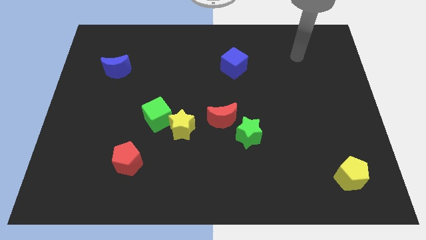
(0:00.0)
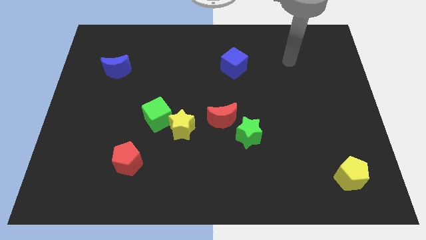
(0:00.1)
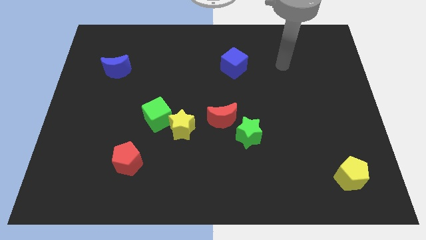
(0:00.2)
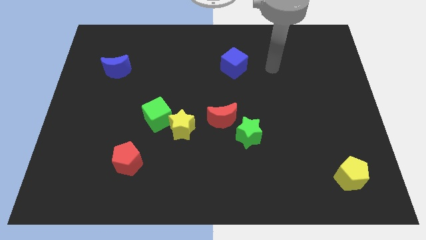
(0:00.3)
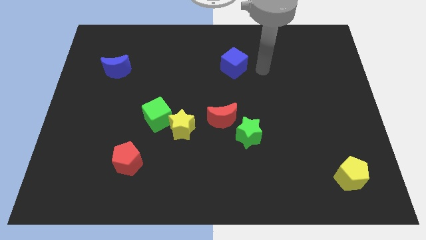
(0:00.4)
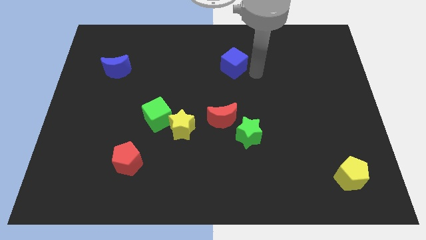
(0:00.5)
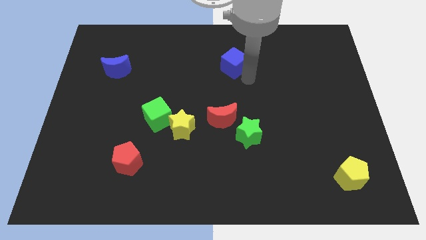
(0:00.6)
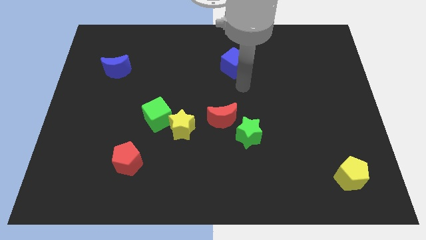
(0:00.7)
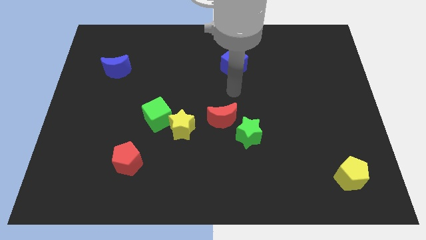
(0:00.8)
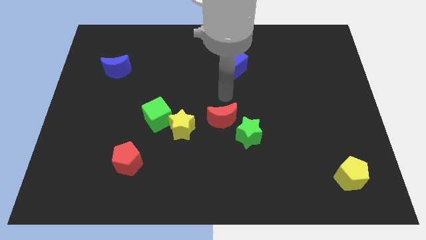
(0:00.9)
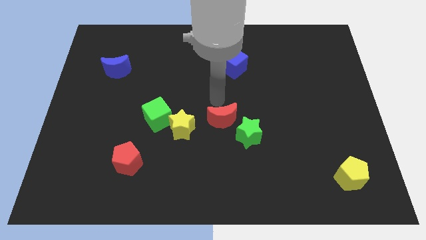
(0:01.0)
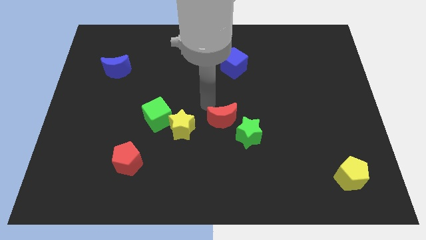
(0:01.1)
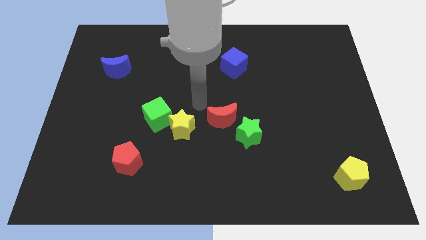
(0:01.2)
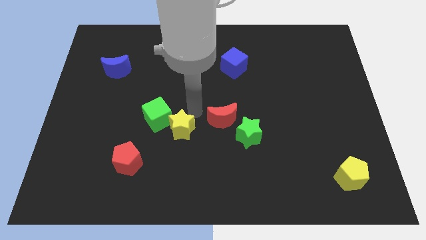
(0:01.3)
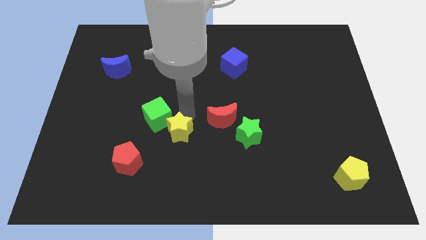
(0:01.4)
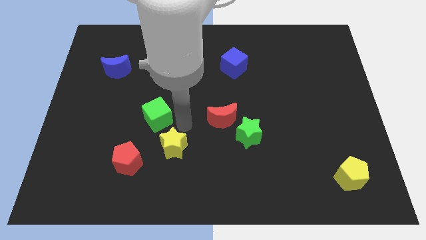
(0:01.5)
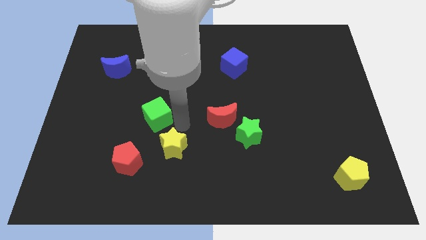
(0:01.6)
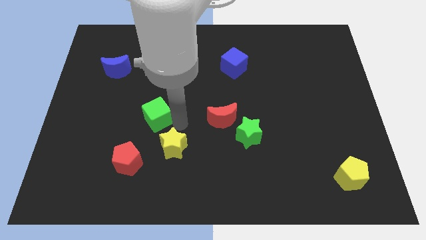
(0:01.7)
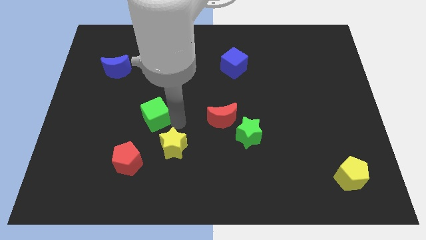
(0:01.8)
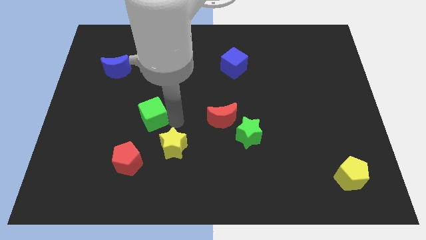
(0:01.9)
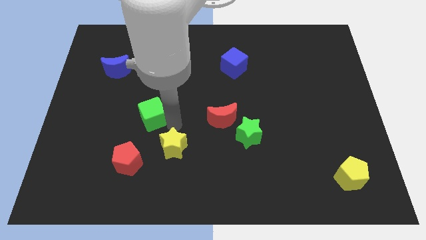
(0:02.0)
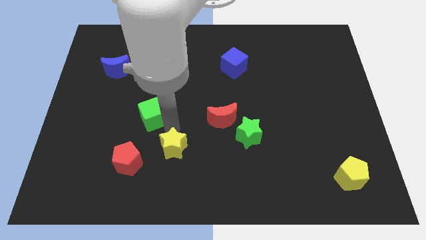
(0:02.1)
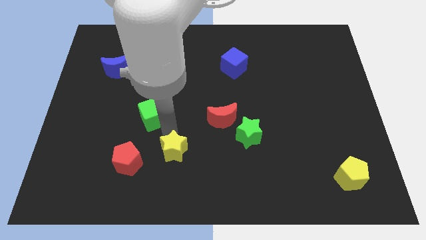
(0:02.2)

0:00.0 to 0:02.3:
pull the green cube apart from the yellow star

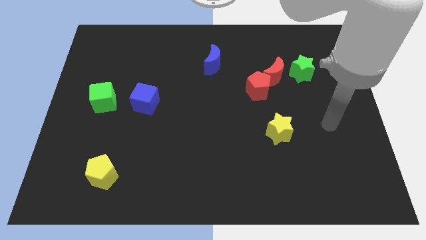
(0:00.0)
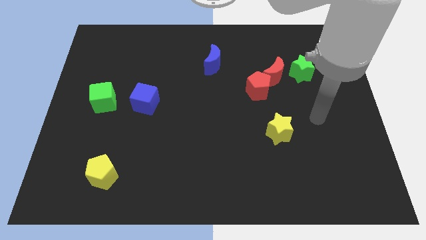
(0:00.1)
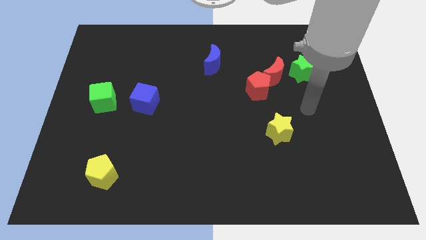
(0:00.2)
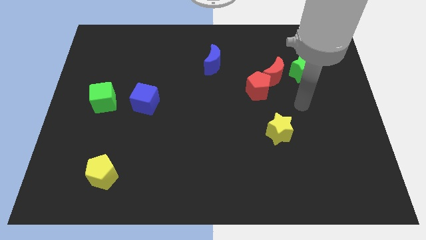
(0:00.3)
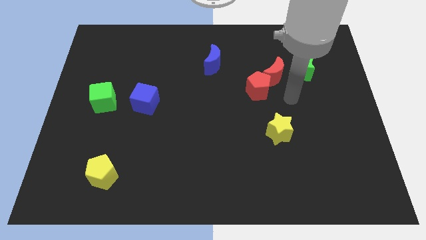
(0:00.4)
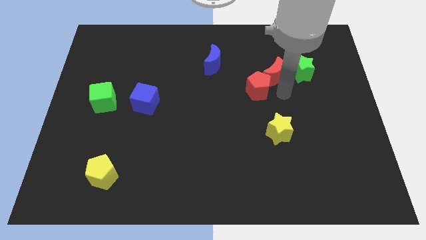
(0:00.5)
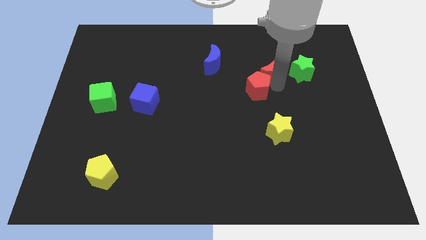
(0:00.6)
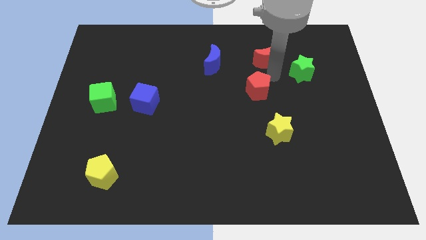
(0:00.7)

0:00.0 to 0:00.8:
separate the red pentagon from the red moon

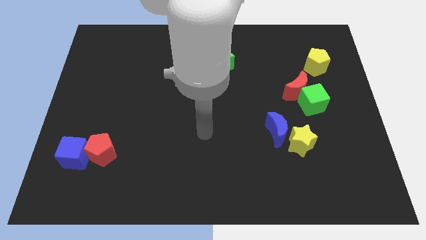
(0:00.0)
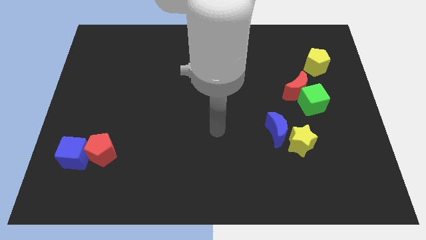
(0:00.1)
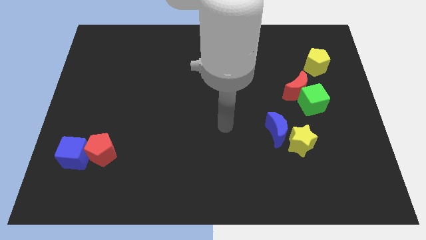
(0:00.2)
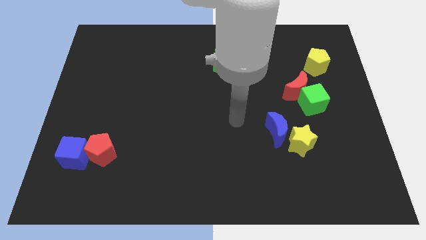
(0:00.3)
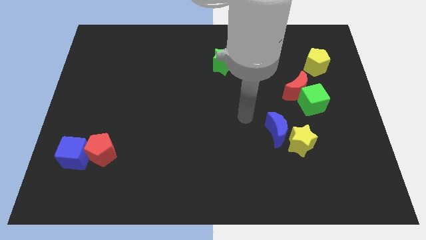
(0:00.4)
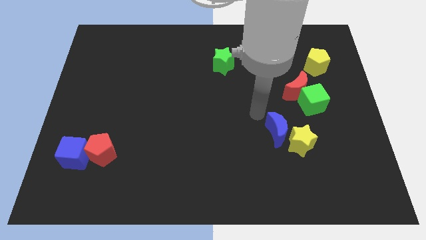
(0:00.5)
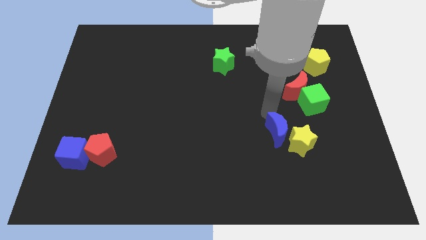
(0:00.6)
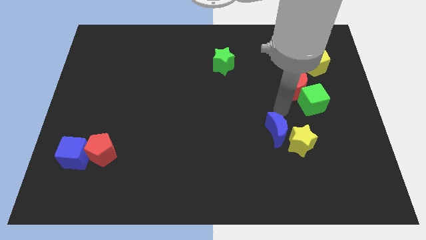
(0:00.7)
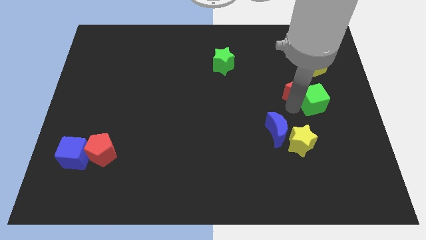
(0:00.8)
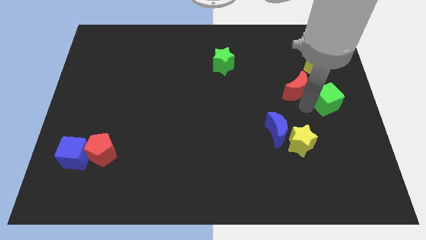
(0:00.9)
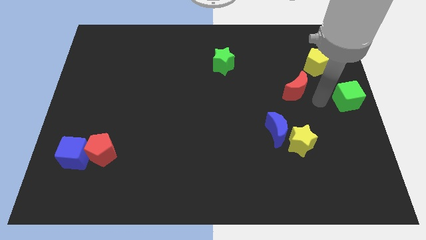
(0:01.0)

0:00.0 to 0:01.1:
move the red moon away from the green cube

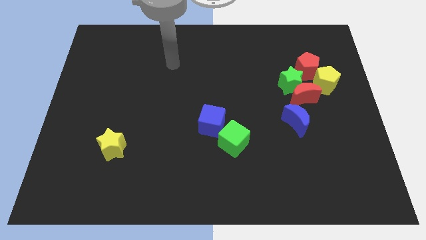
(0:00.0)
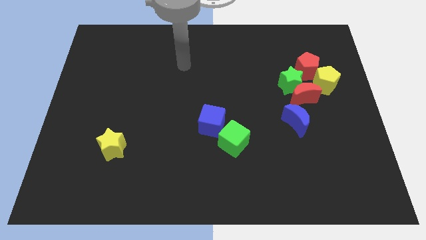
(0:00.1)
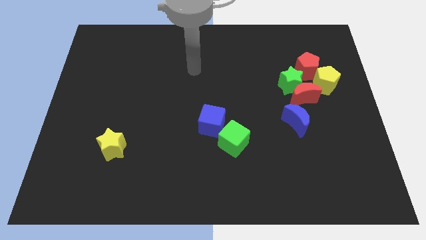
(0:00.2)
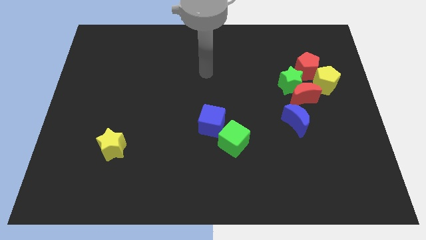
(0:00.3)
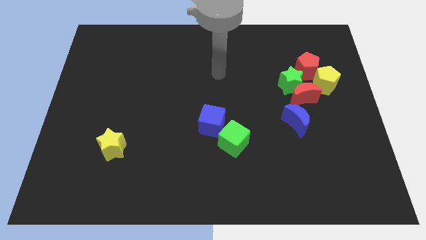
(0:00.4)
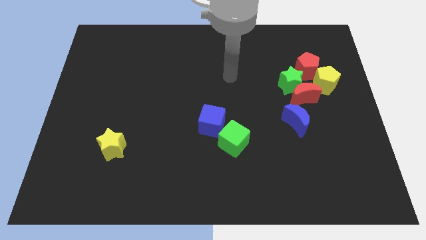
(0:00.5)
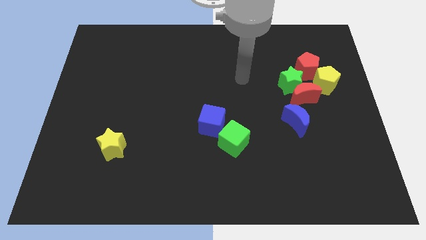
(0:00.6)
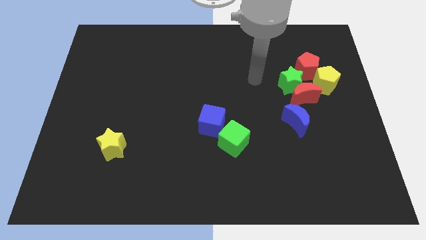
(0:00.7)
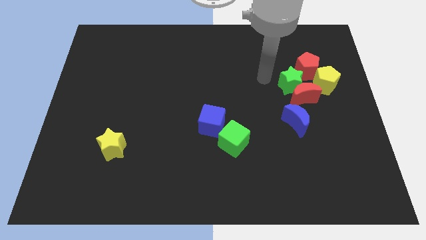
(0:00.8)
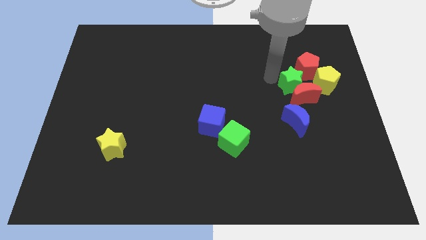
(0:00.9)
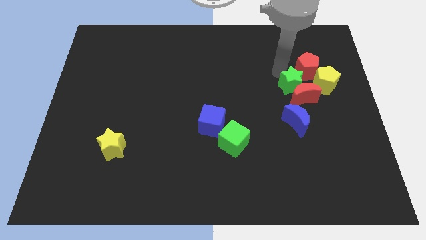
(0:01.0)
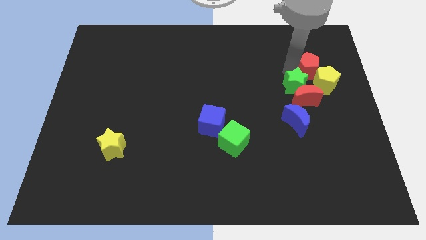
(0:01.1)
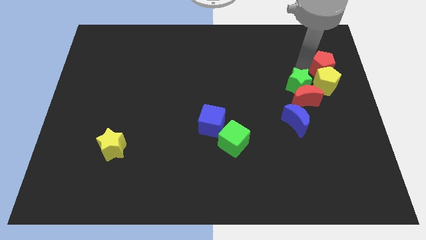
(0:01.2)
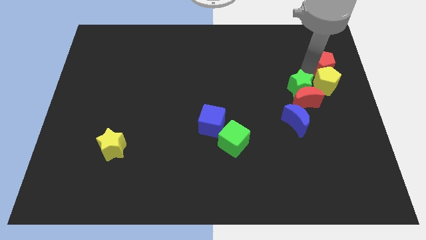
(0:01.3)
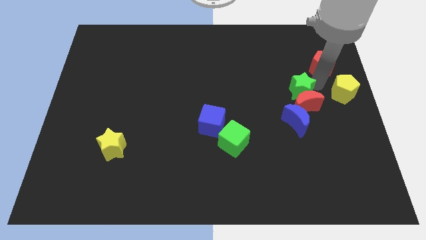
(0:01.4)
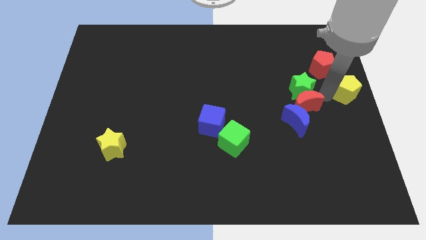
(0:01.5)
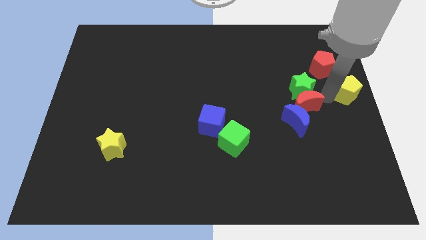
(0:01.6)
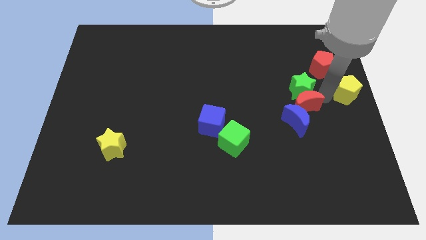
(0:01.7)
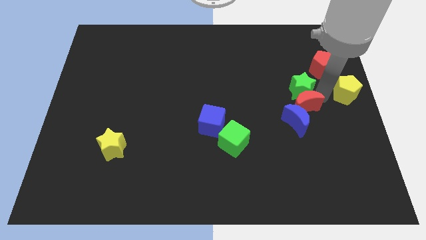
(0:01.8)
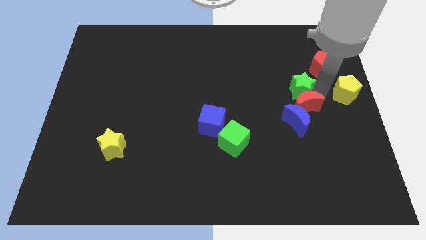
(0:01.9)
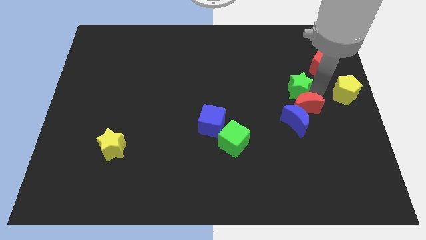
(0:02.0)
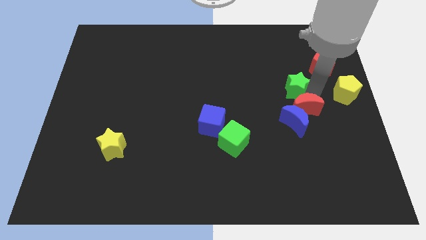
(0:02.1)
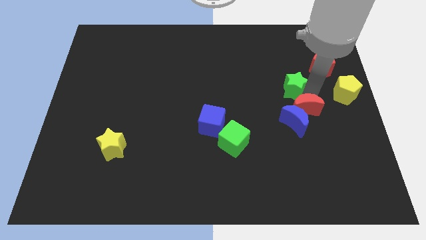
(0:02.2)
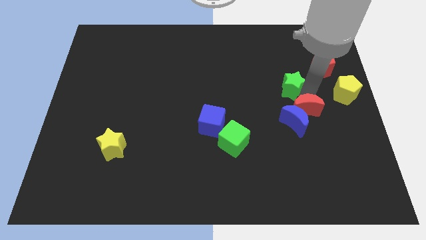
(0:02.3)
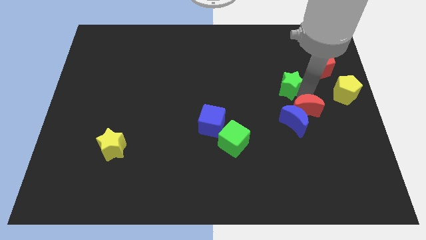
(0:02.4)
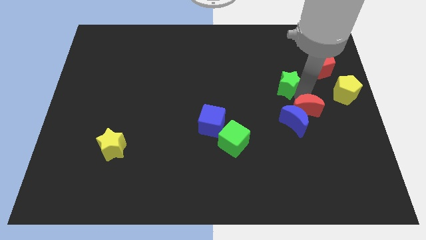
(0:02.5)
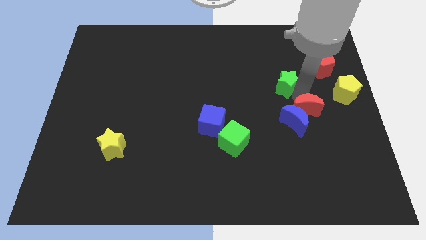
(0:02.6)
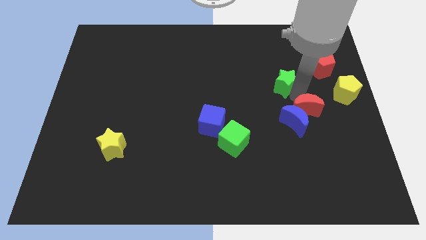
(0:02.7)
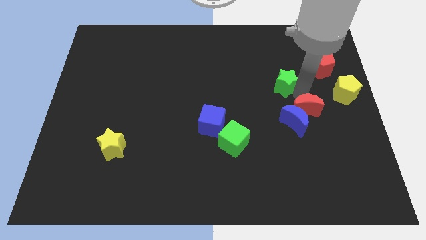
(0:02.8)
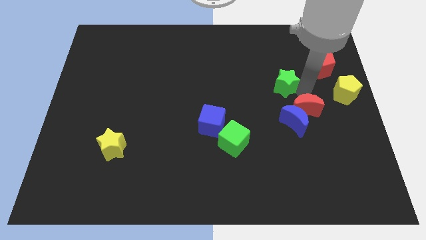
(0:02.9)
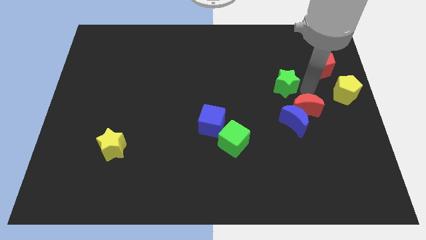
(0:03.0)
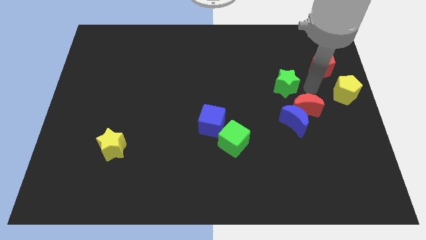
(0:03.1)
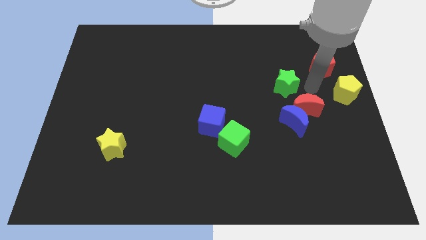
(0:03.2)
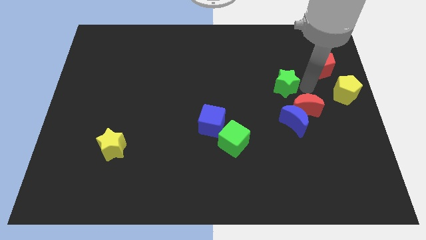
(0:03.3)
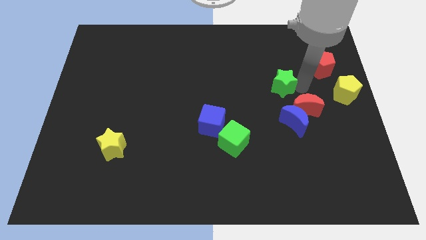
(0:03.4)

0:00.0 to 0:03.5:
move the green star away from the group of blocks

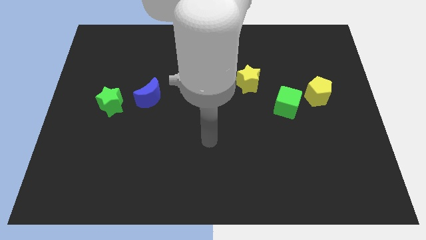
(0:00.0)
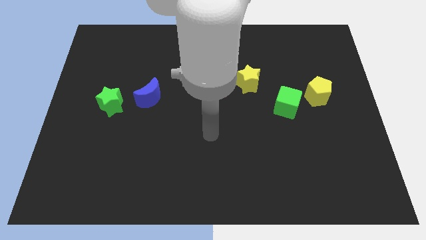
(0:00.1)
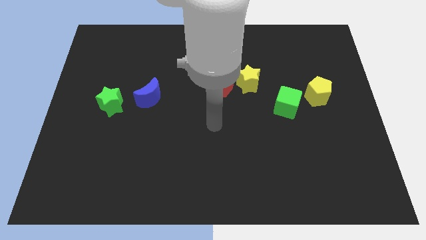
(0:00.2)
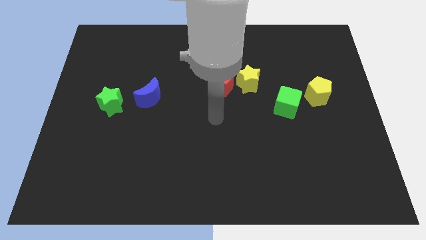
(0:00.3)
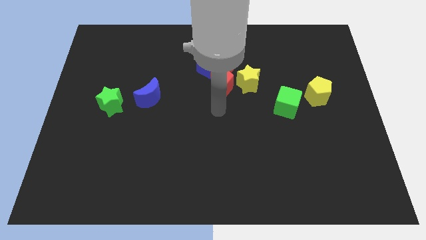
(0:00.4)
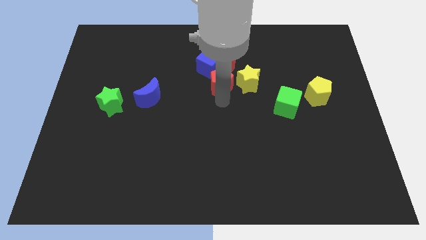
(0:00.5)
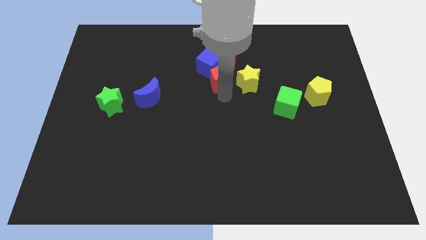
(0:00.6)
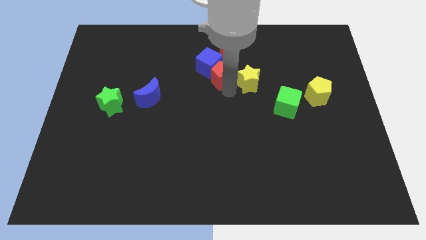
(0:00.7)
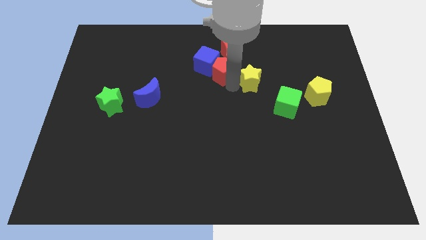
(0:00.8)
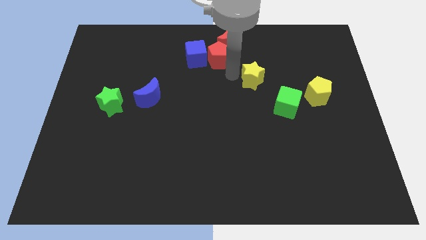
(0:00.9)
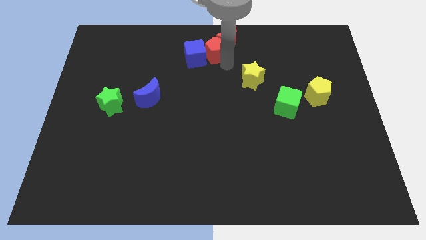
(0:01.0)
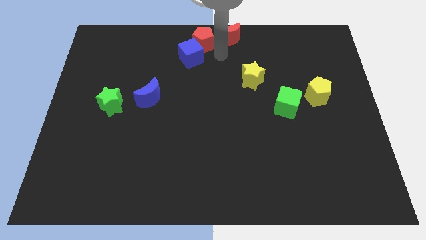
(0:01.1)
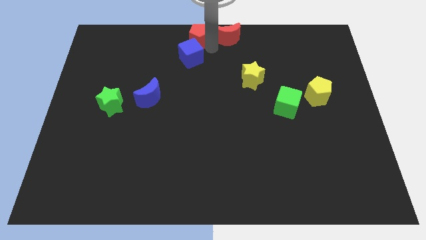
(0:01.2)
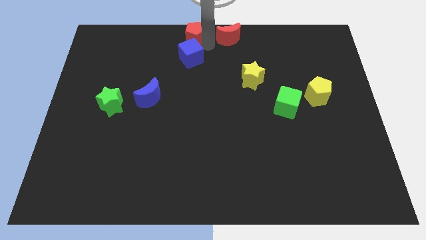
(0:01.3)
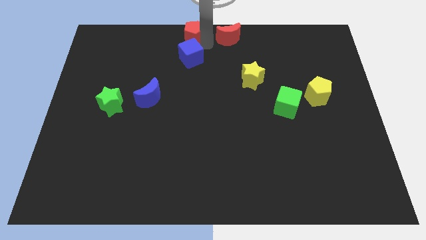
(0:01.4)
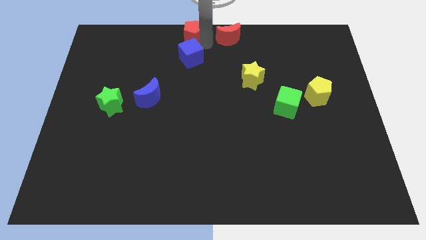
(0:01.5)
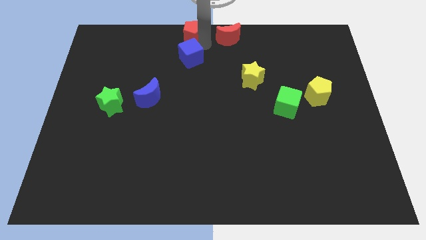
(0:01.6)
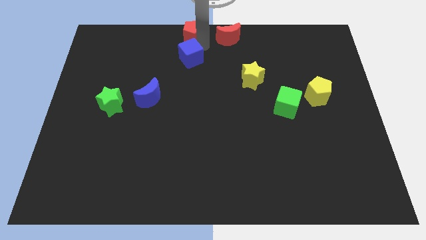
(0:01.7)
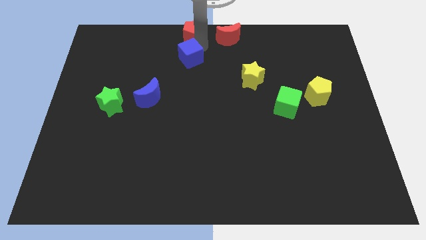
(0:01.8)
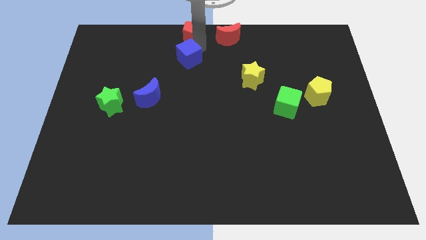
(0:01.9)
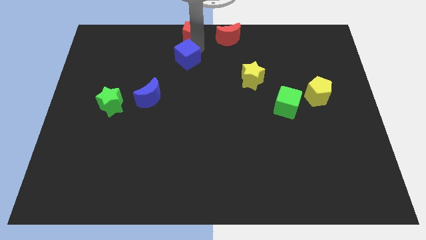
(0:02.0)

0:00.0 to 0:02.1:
pull the blue cube apart from the red moon and red pentagon
